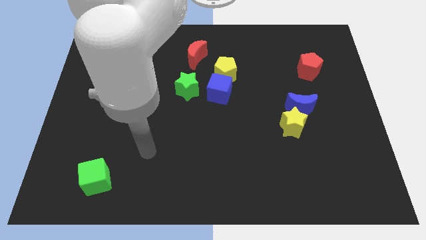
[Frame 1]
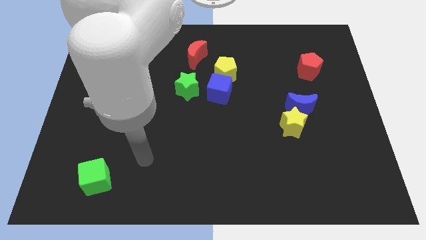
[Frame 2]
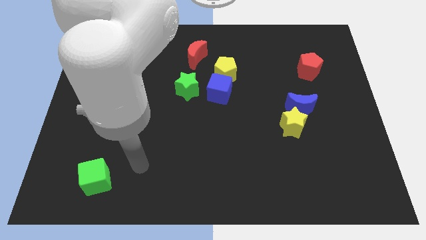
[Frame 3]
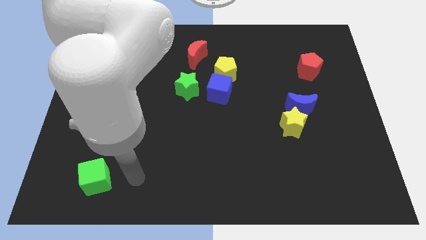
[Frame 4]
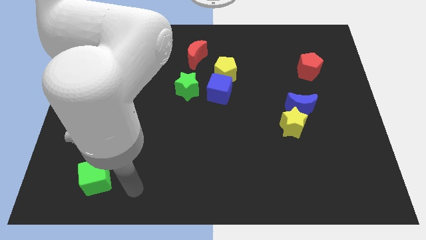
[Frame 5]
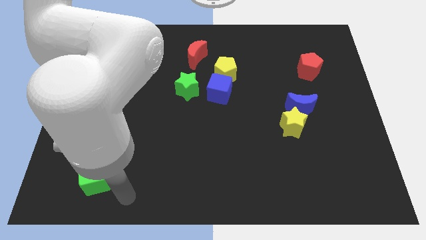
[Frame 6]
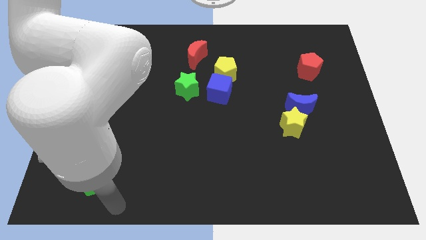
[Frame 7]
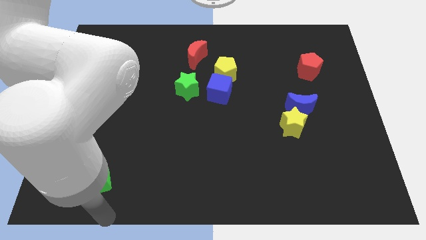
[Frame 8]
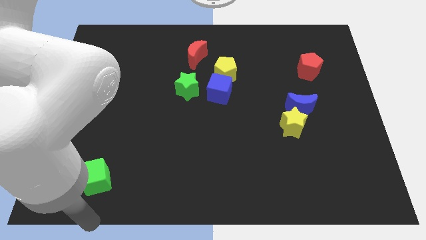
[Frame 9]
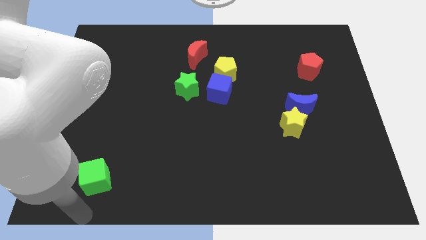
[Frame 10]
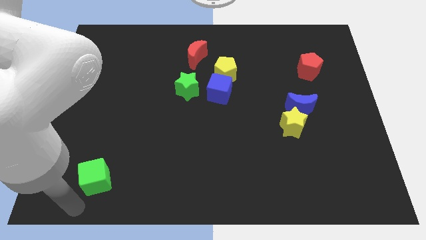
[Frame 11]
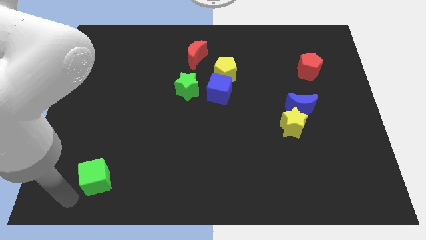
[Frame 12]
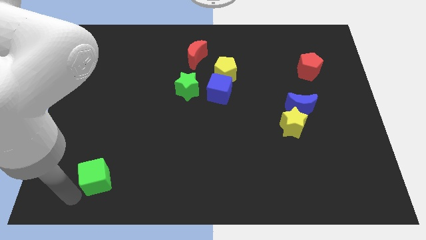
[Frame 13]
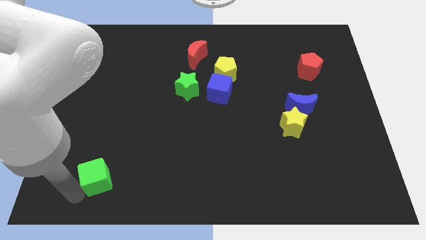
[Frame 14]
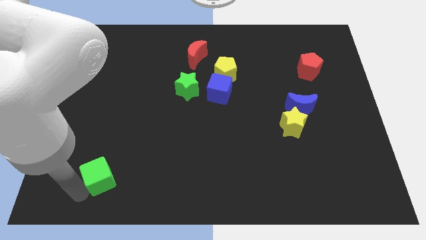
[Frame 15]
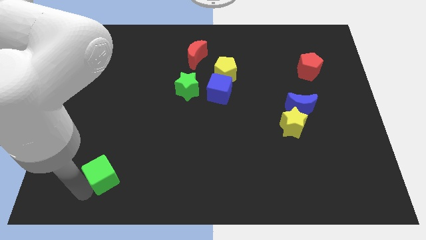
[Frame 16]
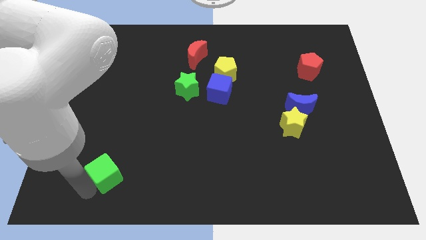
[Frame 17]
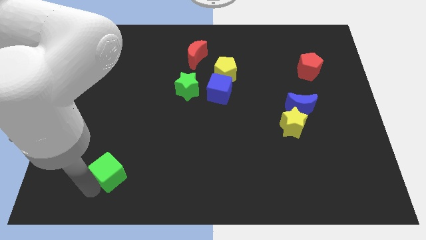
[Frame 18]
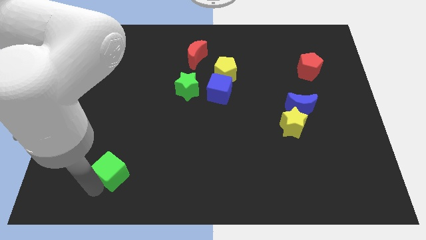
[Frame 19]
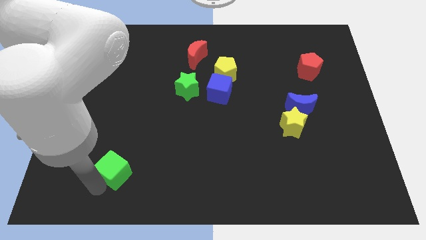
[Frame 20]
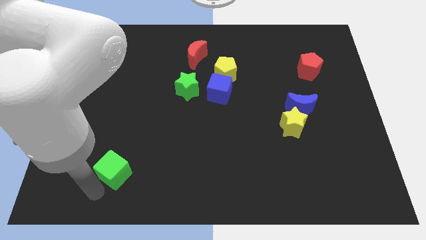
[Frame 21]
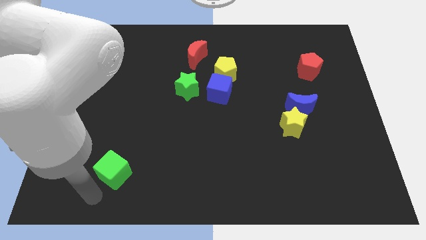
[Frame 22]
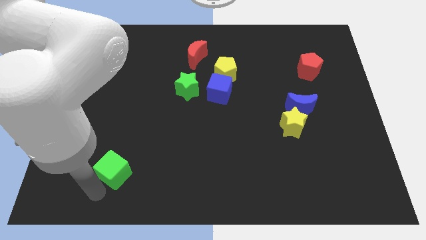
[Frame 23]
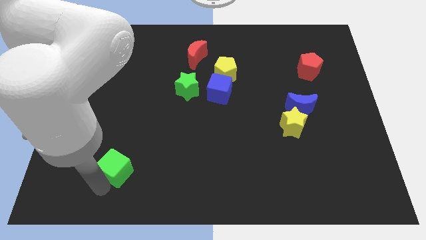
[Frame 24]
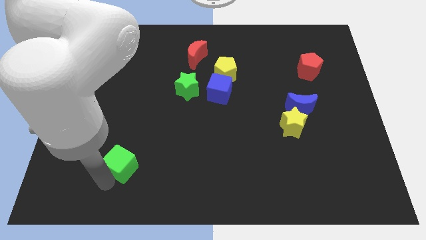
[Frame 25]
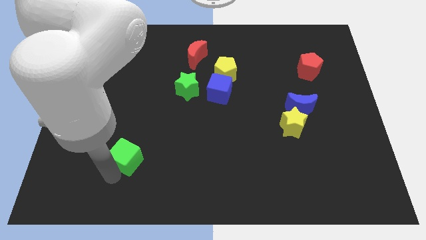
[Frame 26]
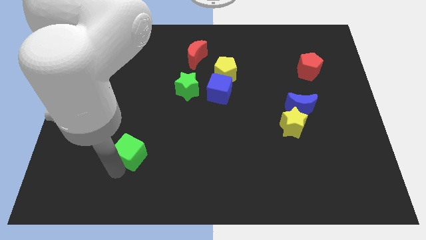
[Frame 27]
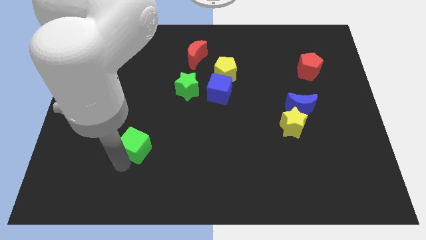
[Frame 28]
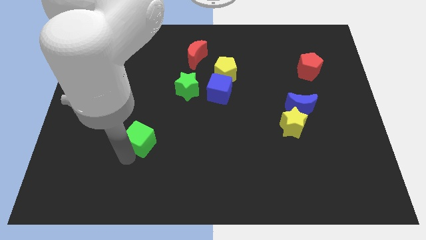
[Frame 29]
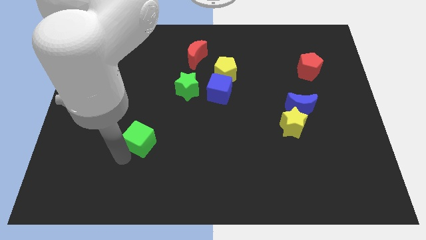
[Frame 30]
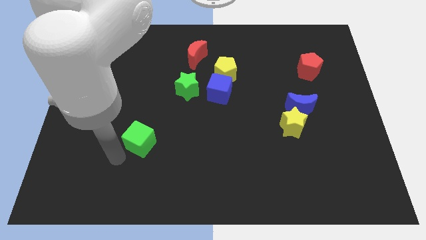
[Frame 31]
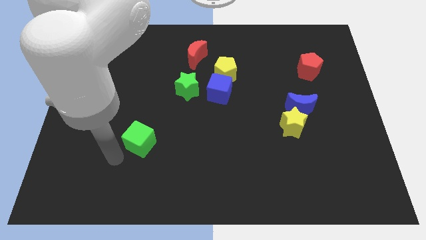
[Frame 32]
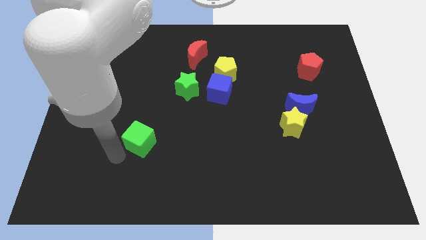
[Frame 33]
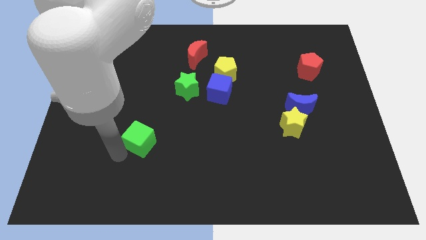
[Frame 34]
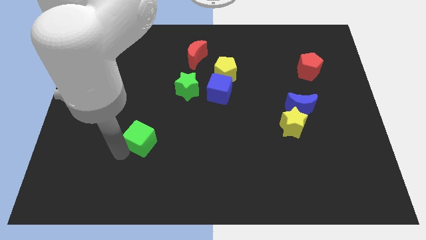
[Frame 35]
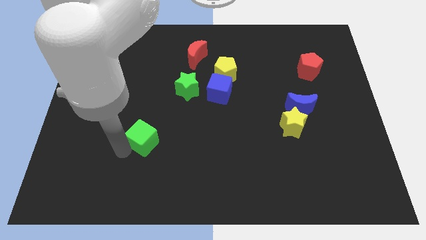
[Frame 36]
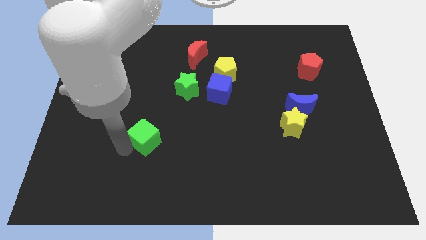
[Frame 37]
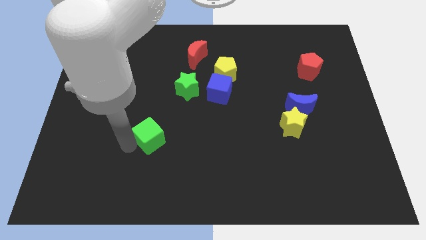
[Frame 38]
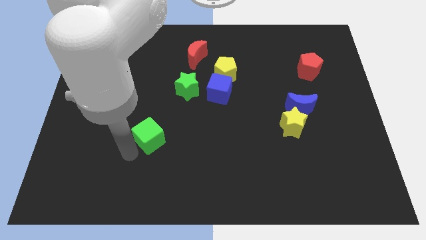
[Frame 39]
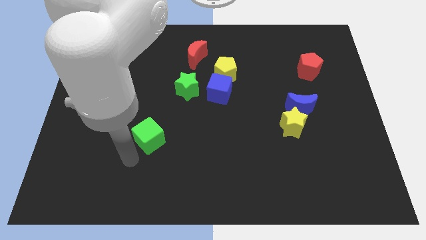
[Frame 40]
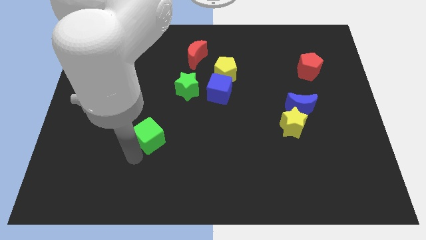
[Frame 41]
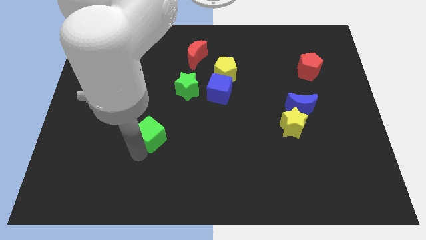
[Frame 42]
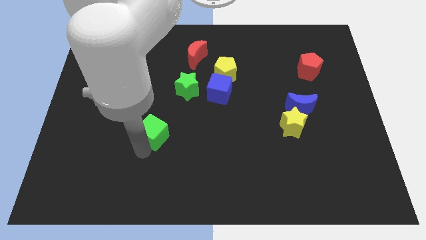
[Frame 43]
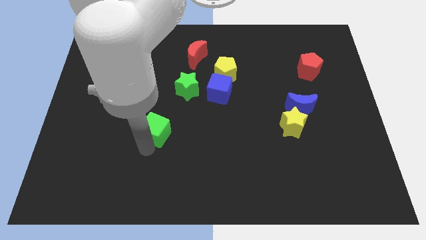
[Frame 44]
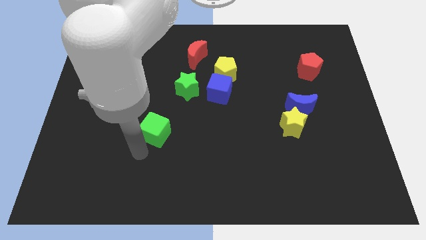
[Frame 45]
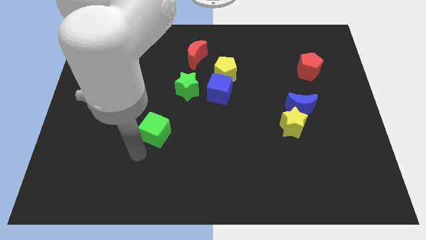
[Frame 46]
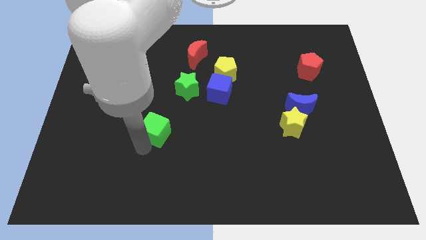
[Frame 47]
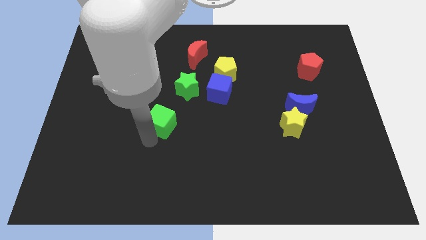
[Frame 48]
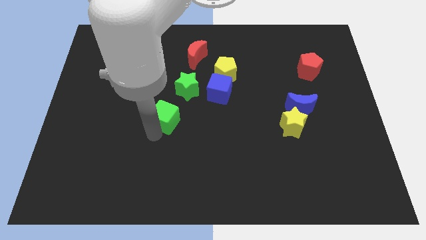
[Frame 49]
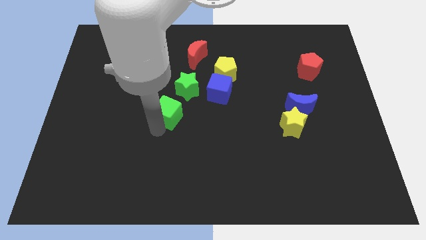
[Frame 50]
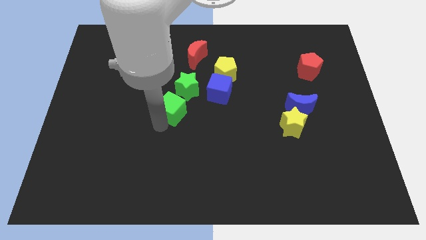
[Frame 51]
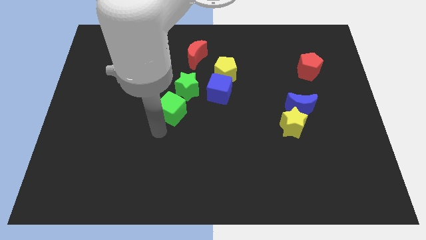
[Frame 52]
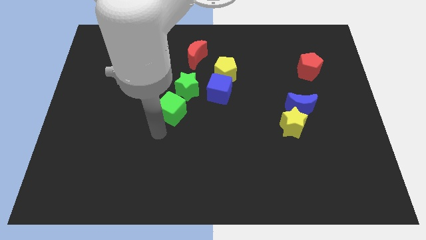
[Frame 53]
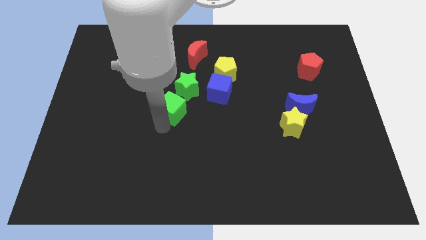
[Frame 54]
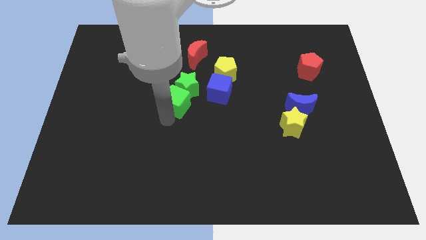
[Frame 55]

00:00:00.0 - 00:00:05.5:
slide the green cube next to the green star
